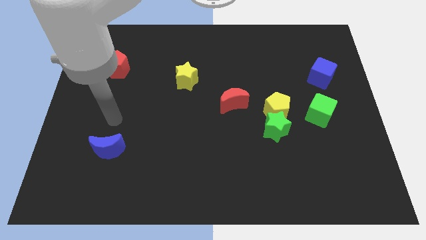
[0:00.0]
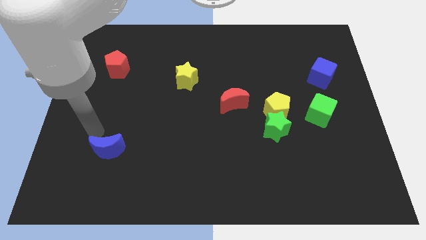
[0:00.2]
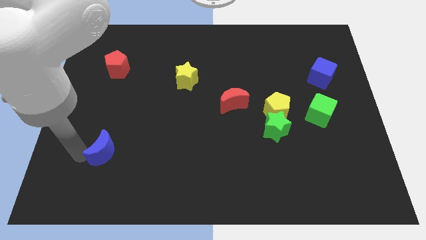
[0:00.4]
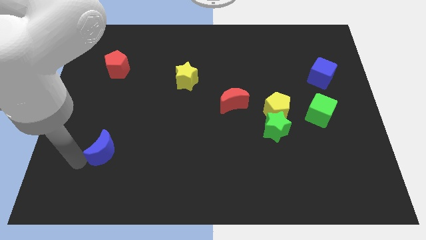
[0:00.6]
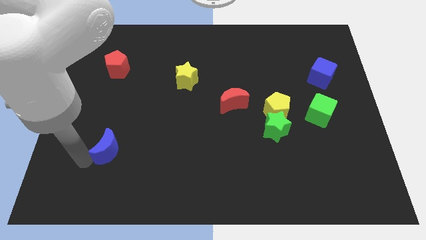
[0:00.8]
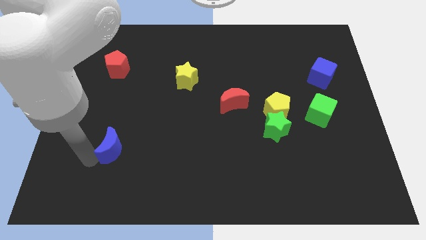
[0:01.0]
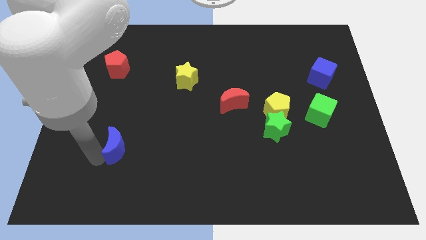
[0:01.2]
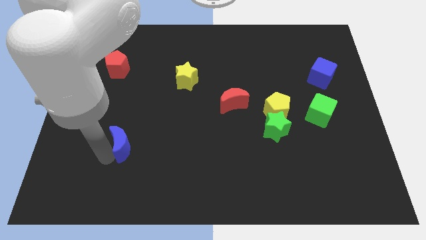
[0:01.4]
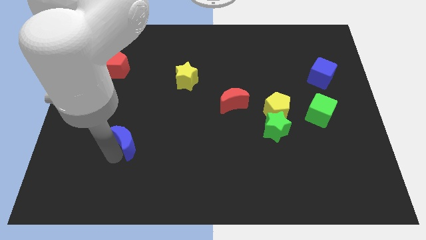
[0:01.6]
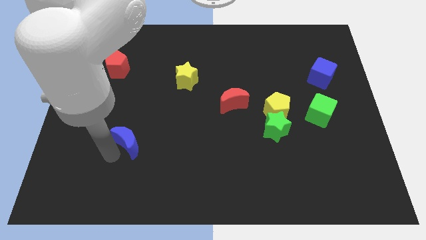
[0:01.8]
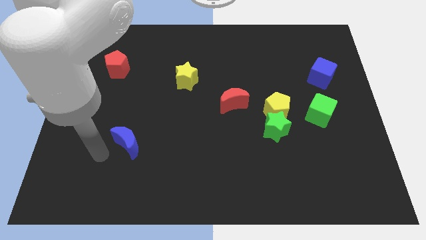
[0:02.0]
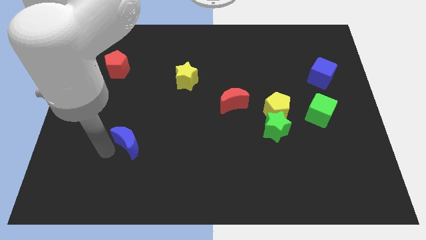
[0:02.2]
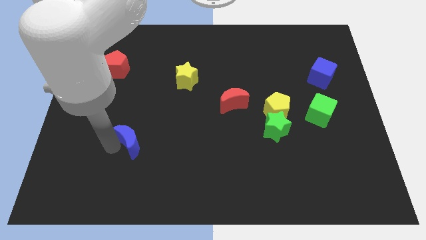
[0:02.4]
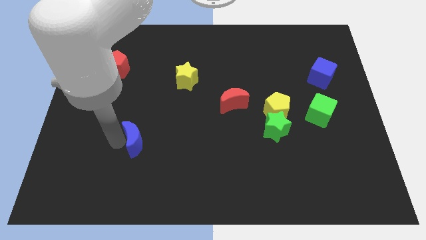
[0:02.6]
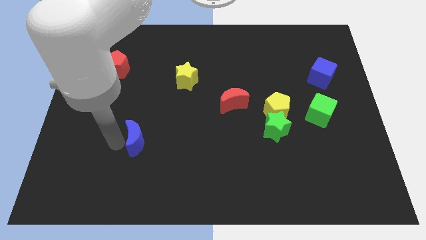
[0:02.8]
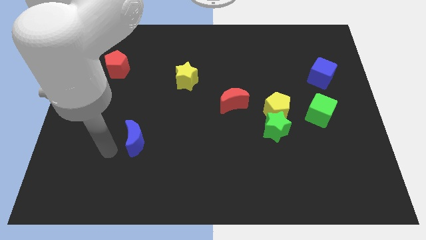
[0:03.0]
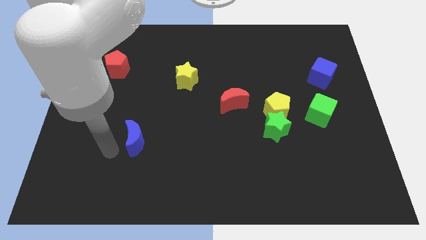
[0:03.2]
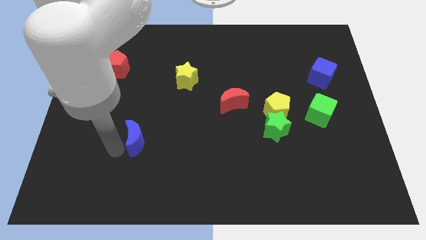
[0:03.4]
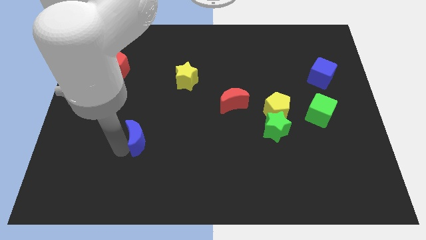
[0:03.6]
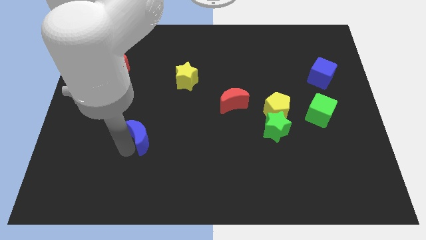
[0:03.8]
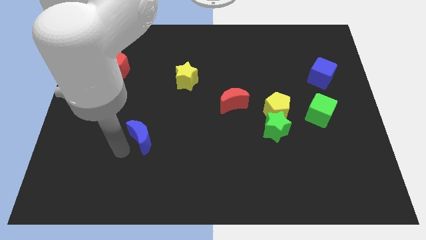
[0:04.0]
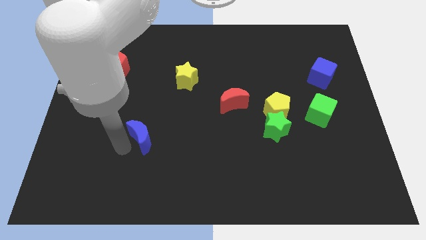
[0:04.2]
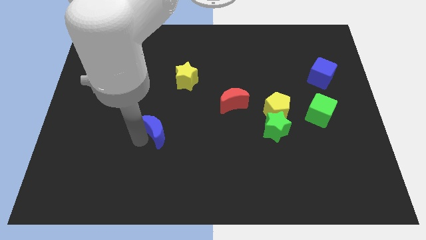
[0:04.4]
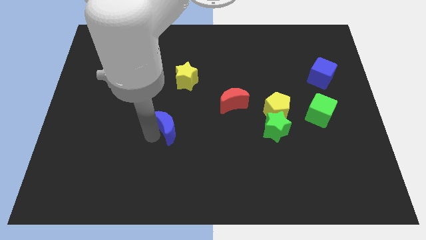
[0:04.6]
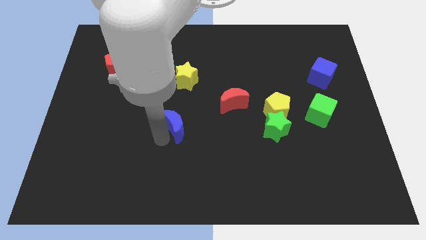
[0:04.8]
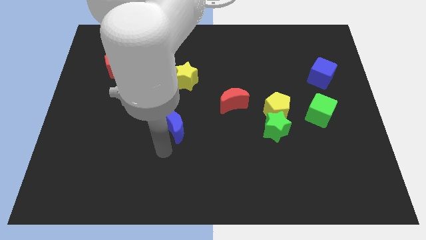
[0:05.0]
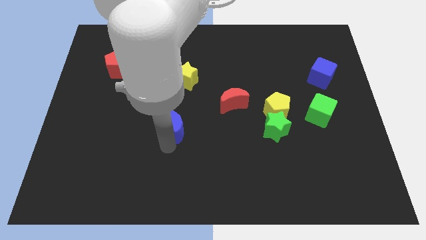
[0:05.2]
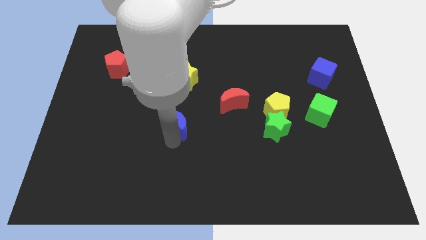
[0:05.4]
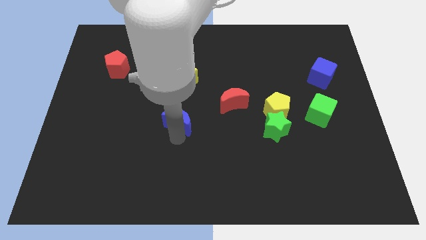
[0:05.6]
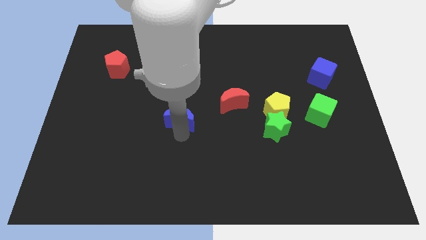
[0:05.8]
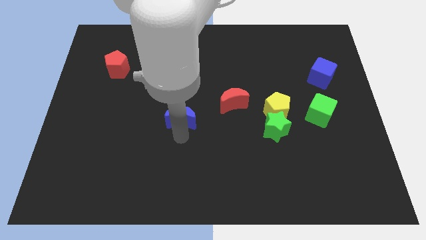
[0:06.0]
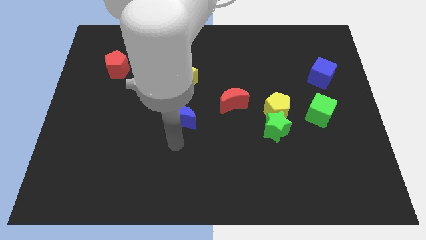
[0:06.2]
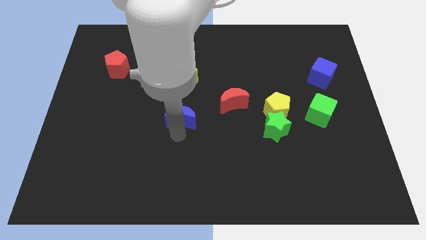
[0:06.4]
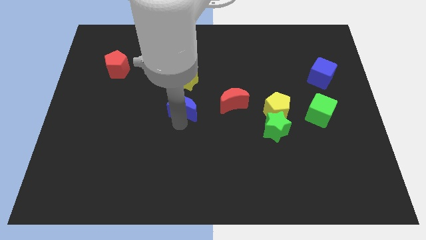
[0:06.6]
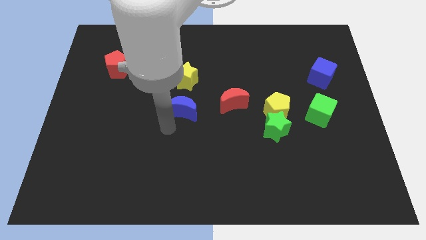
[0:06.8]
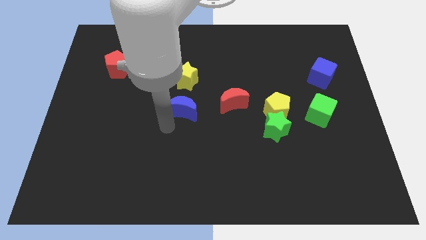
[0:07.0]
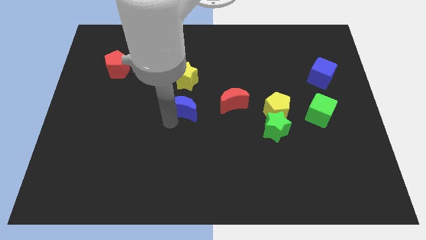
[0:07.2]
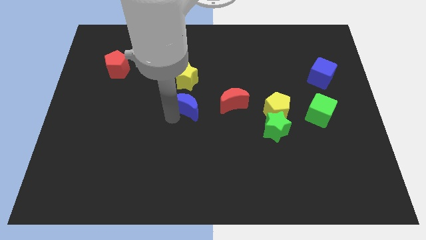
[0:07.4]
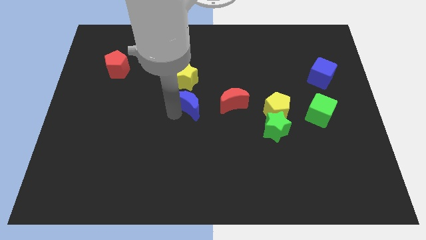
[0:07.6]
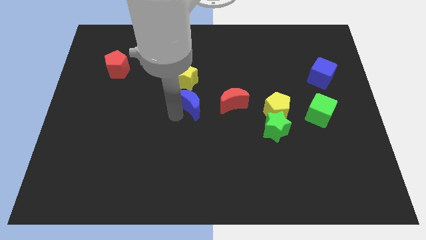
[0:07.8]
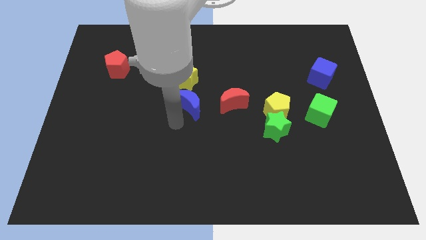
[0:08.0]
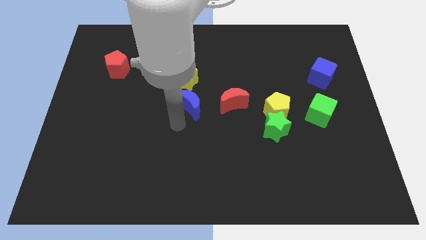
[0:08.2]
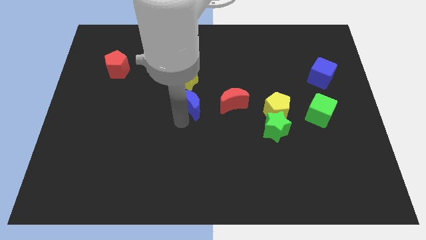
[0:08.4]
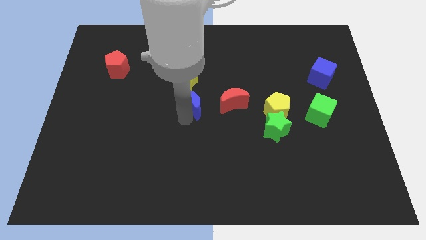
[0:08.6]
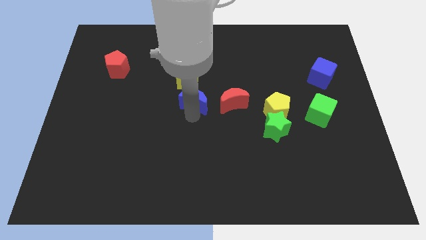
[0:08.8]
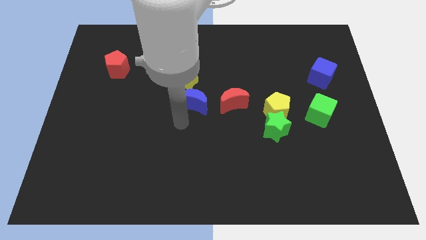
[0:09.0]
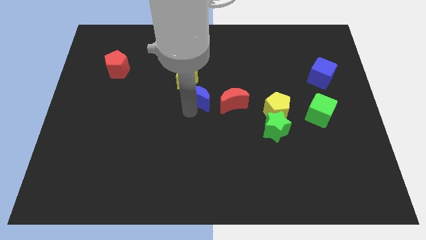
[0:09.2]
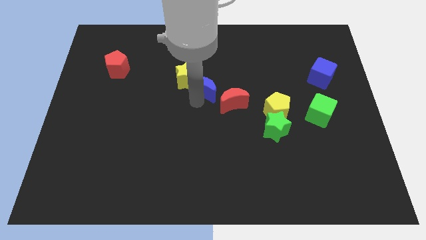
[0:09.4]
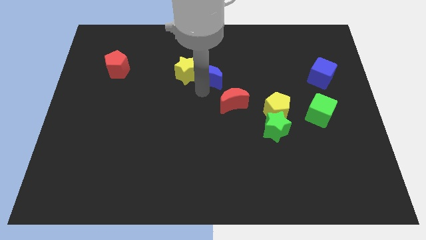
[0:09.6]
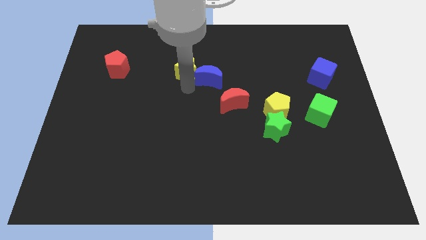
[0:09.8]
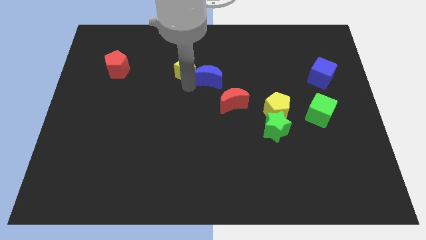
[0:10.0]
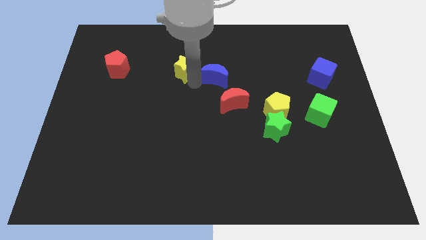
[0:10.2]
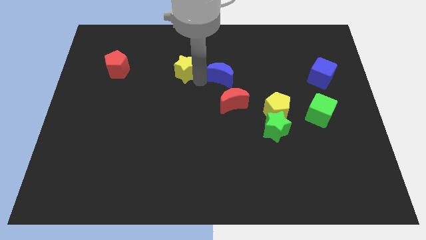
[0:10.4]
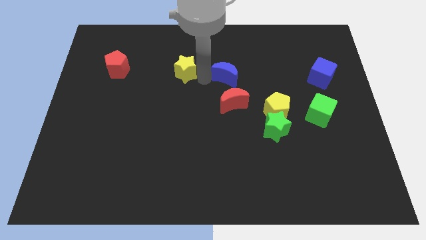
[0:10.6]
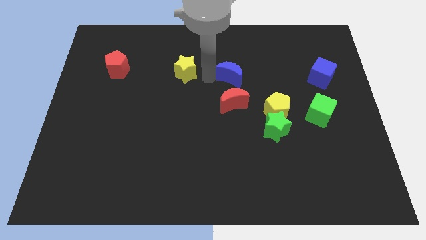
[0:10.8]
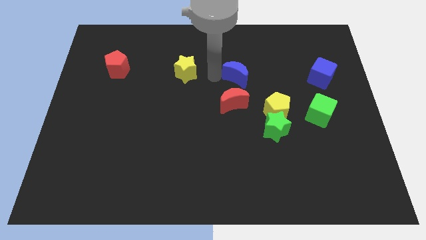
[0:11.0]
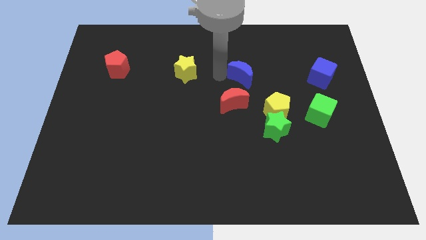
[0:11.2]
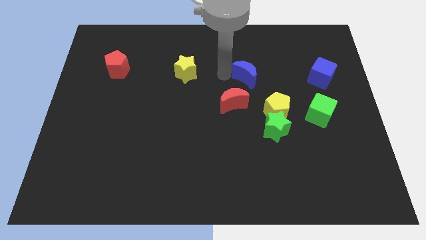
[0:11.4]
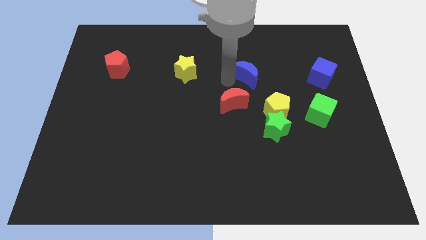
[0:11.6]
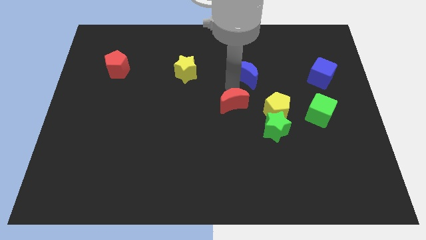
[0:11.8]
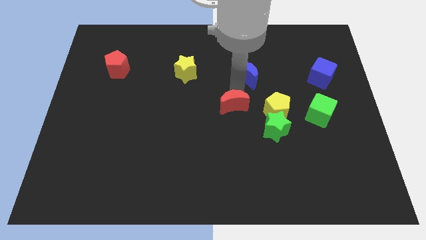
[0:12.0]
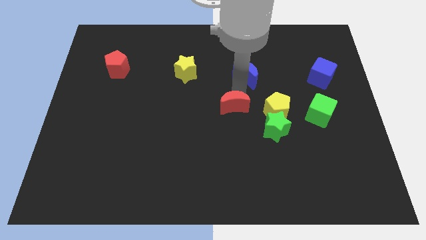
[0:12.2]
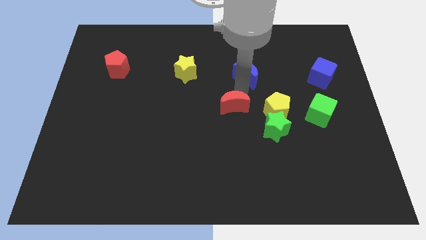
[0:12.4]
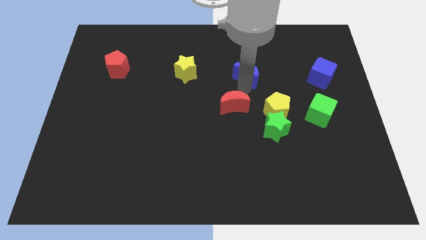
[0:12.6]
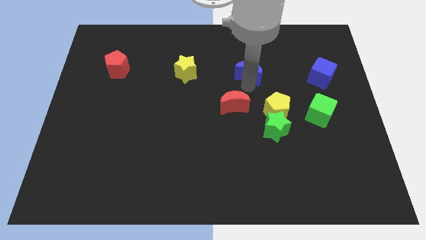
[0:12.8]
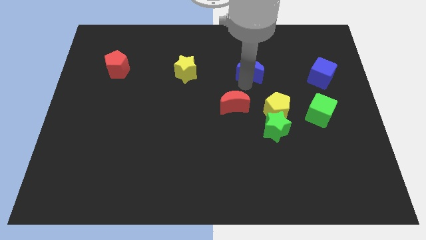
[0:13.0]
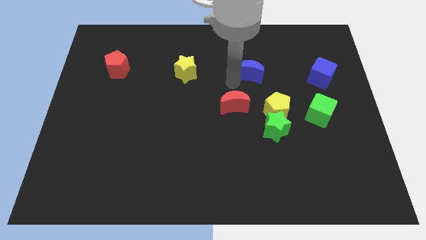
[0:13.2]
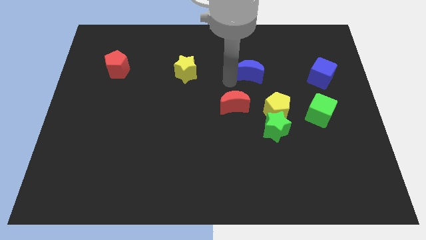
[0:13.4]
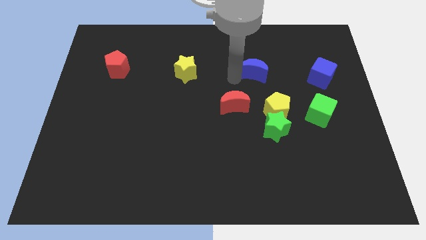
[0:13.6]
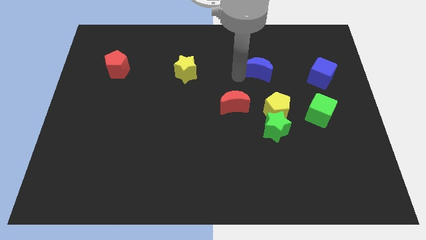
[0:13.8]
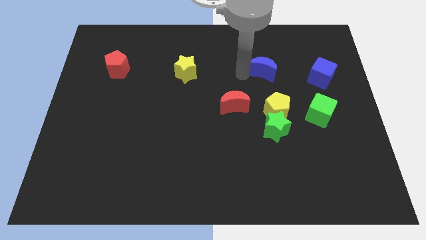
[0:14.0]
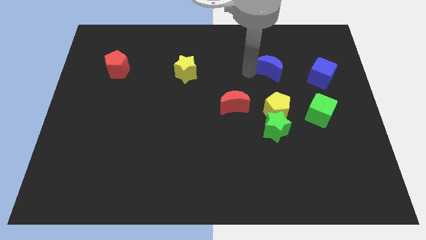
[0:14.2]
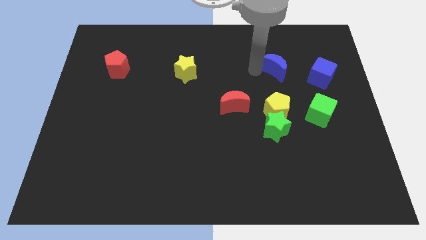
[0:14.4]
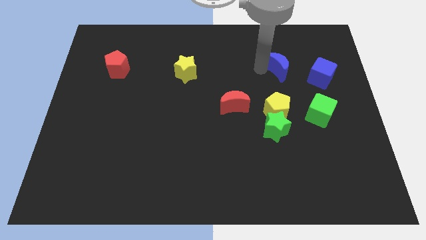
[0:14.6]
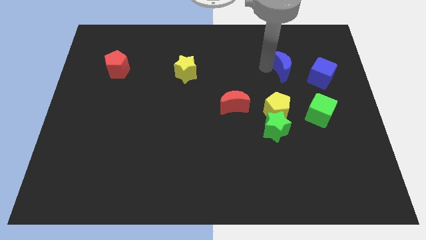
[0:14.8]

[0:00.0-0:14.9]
push the blue moon diagonally up and to the left of the blue cube
